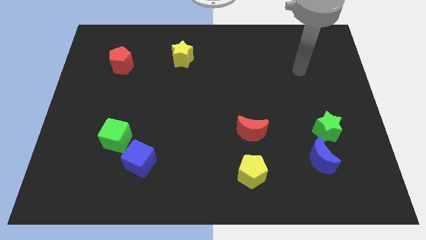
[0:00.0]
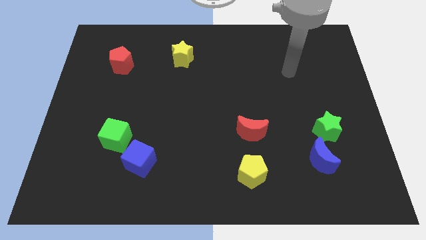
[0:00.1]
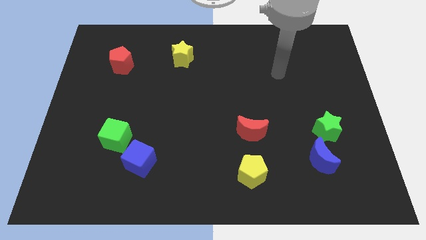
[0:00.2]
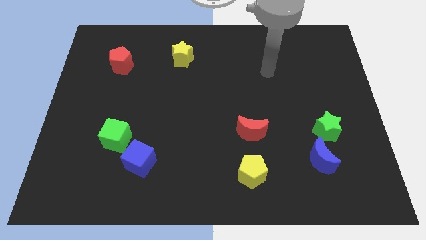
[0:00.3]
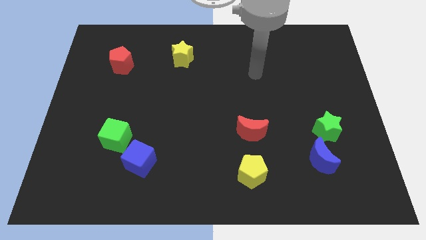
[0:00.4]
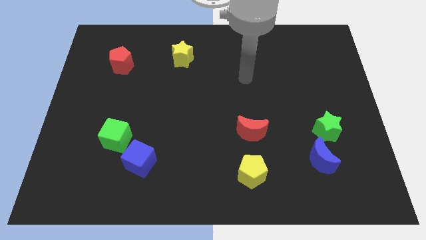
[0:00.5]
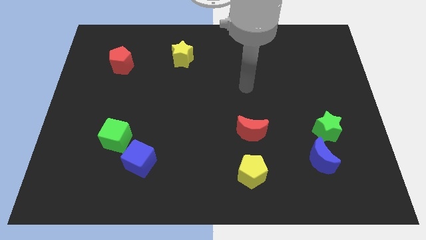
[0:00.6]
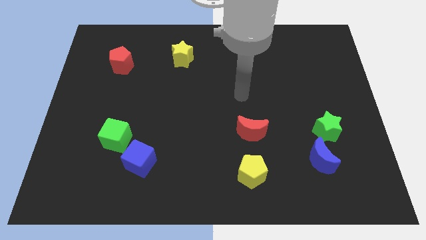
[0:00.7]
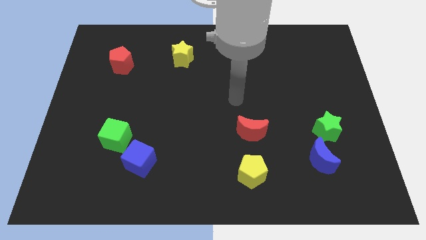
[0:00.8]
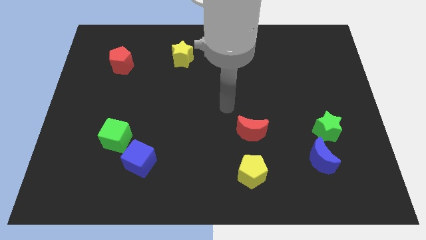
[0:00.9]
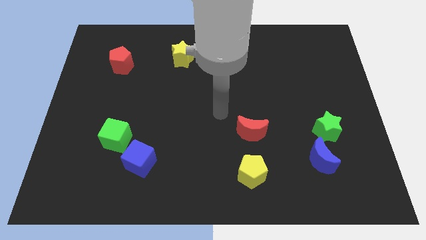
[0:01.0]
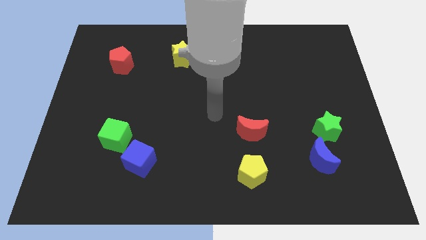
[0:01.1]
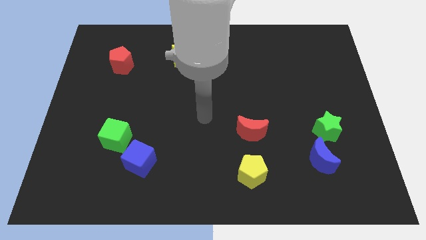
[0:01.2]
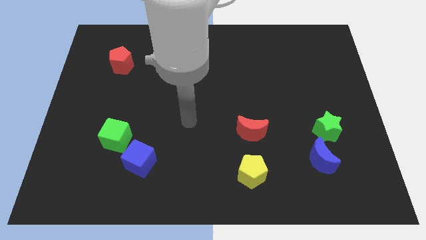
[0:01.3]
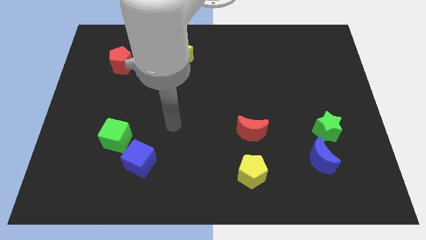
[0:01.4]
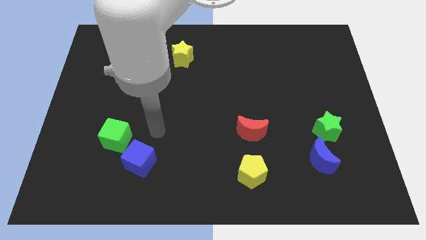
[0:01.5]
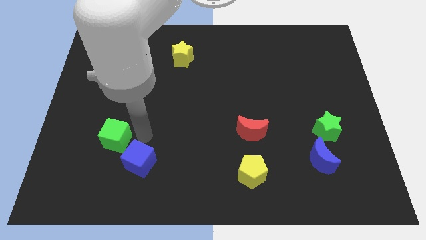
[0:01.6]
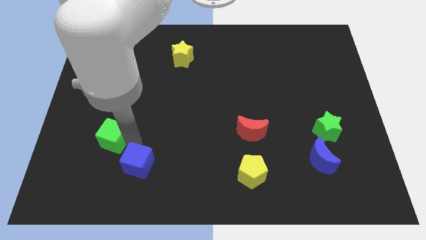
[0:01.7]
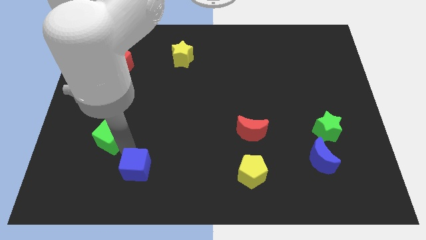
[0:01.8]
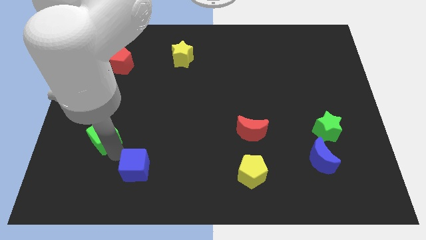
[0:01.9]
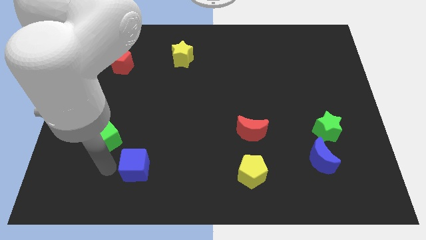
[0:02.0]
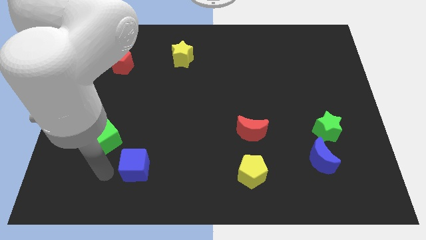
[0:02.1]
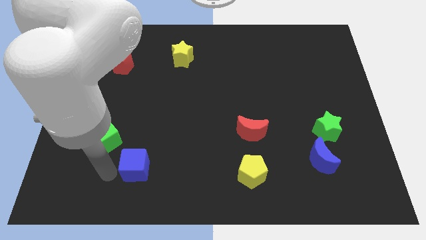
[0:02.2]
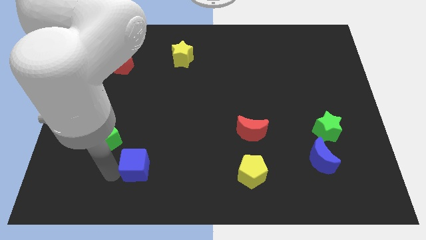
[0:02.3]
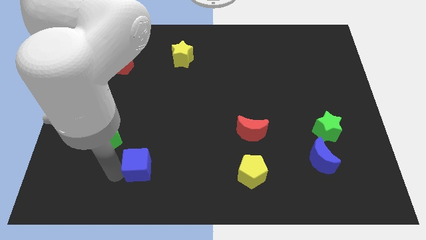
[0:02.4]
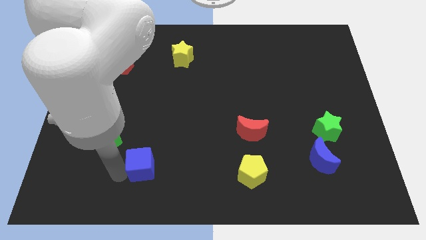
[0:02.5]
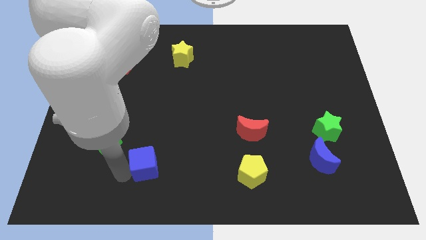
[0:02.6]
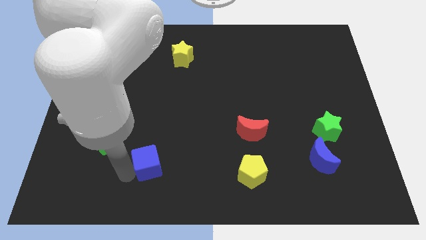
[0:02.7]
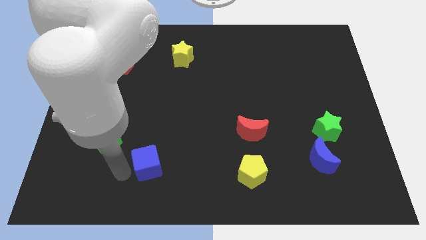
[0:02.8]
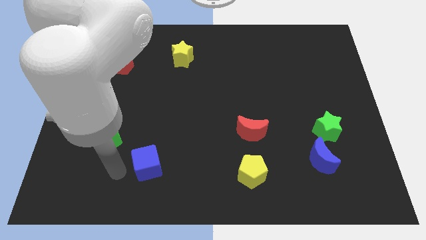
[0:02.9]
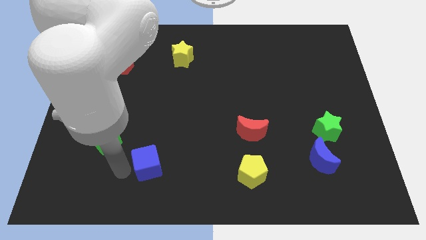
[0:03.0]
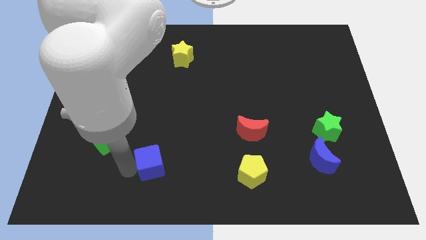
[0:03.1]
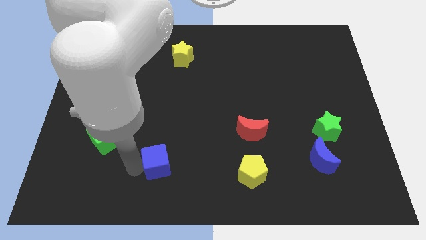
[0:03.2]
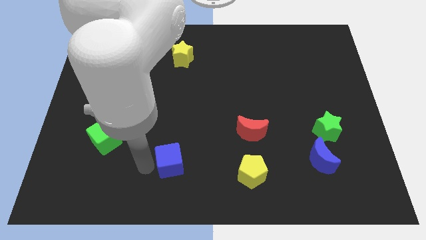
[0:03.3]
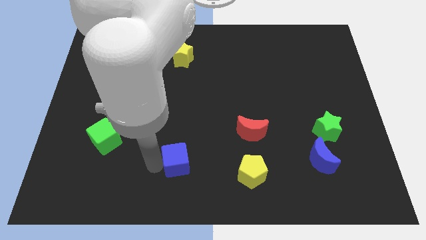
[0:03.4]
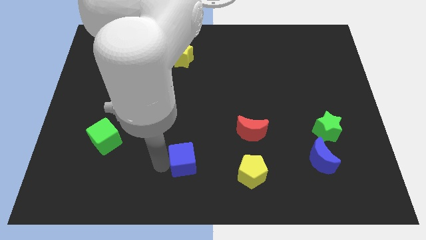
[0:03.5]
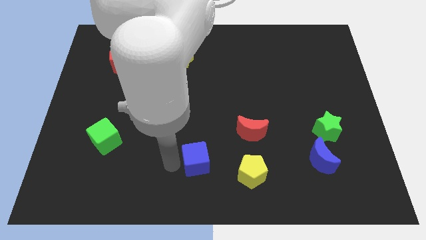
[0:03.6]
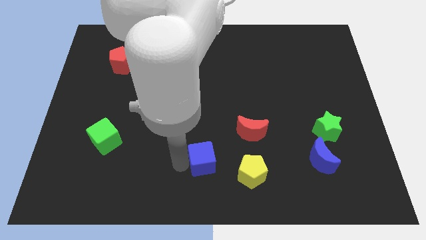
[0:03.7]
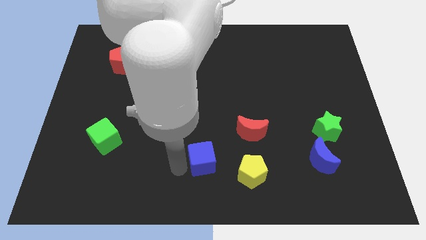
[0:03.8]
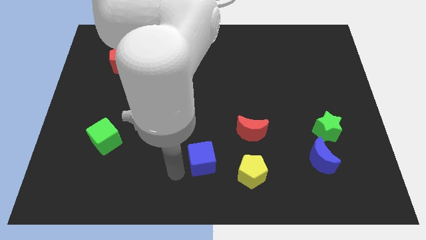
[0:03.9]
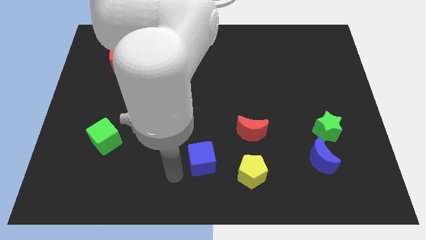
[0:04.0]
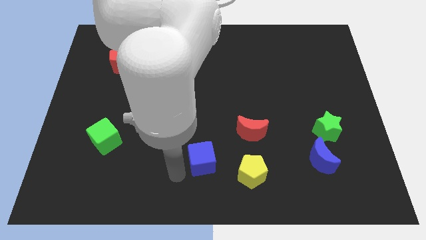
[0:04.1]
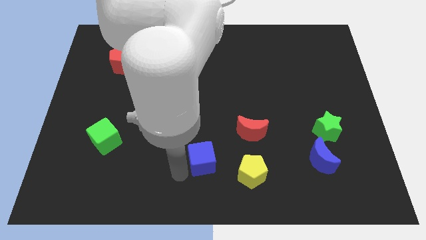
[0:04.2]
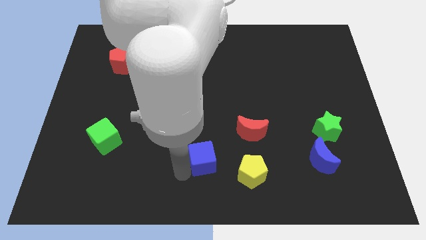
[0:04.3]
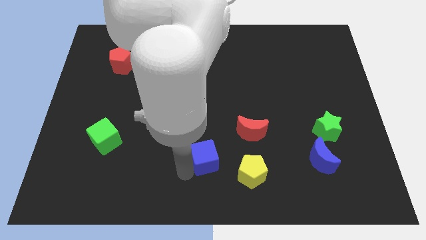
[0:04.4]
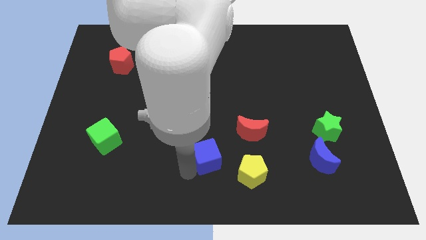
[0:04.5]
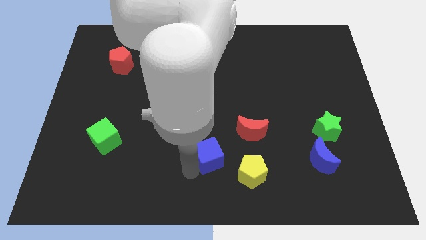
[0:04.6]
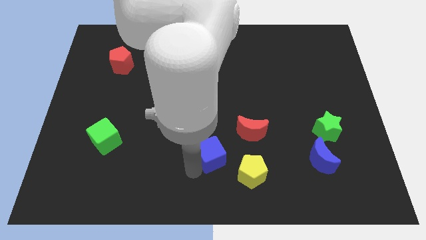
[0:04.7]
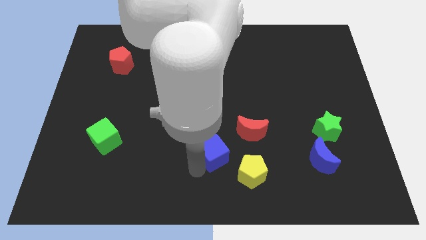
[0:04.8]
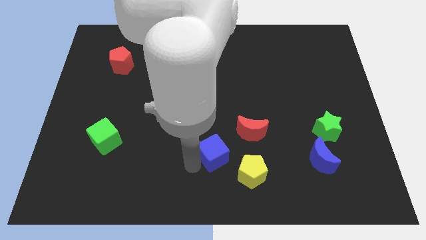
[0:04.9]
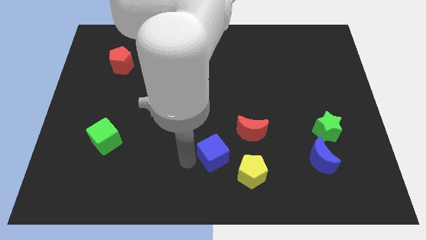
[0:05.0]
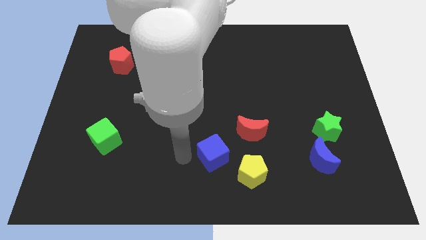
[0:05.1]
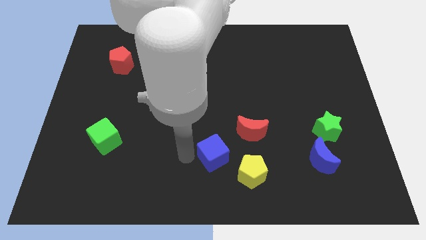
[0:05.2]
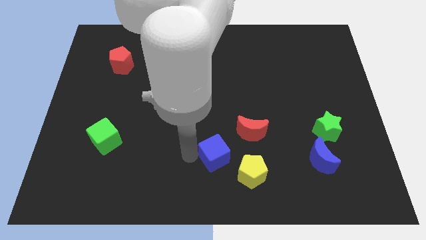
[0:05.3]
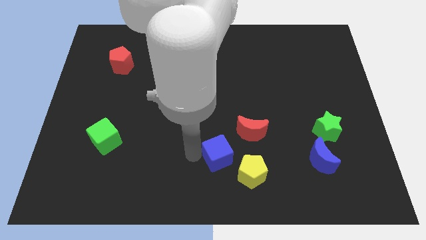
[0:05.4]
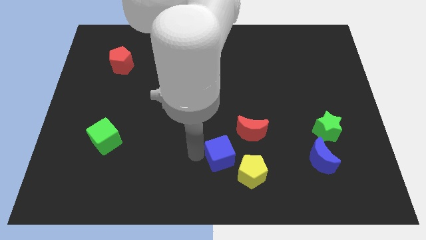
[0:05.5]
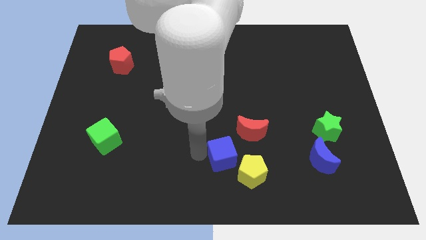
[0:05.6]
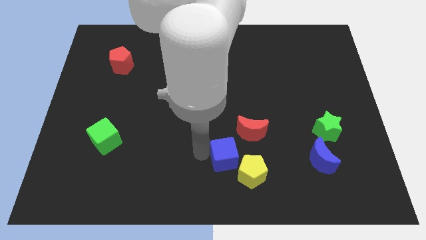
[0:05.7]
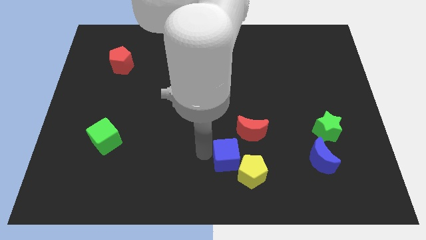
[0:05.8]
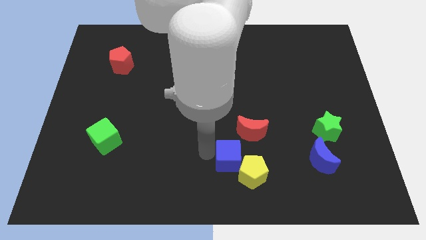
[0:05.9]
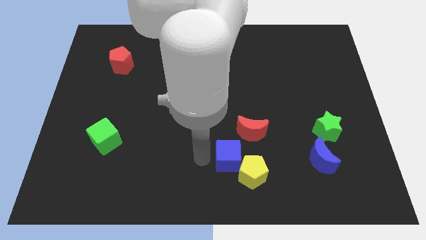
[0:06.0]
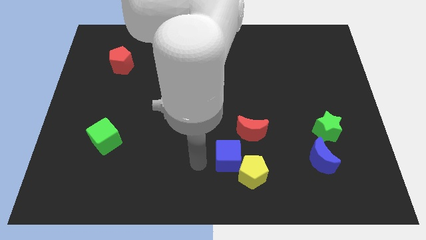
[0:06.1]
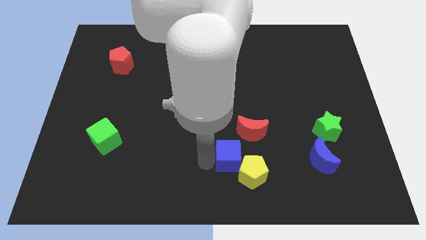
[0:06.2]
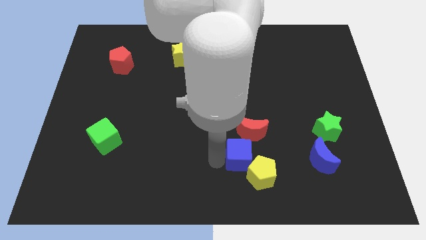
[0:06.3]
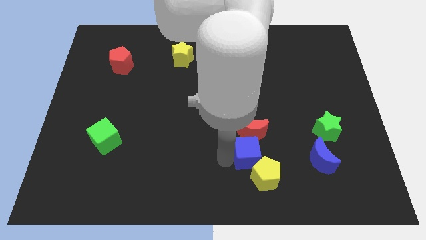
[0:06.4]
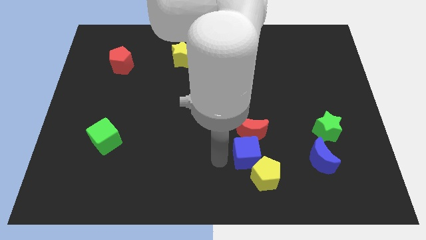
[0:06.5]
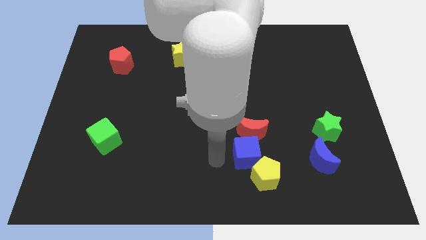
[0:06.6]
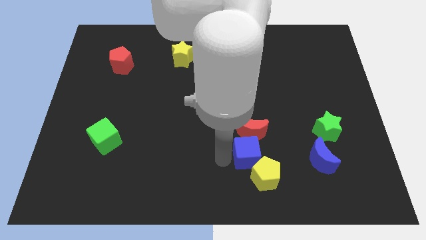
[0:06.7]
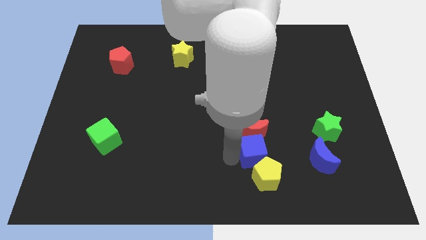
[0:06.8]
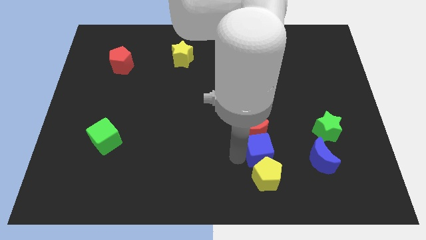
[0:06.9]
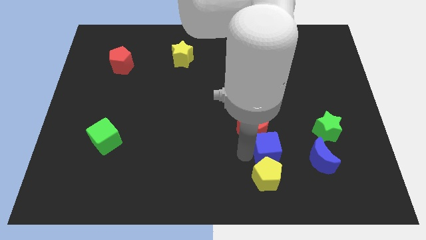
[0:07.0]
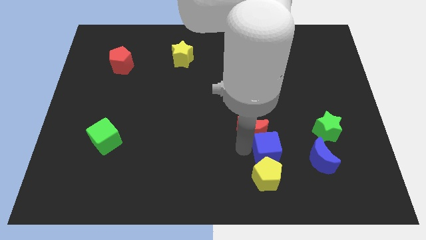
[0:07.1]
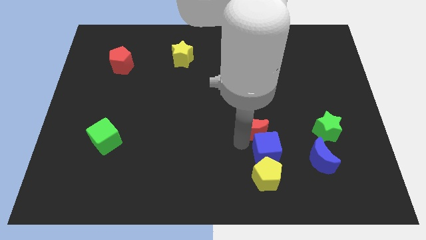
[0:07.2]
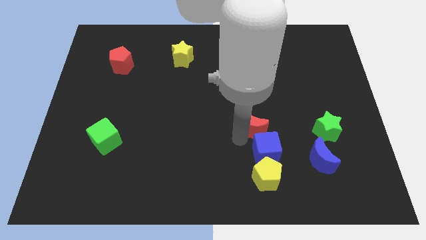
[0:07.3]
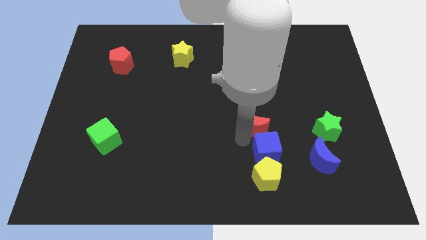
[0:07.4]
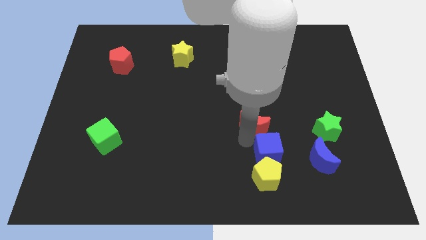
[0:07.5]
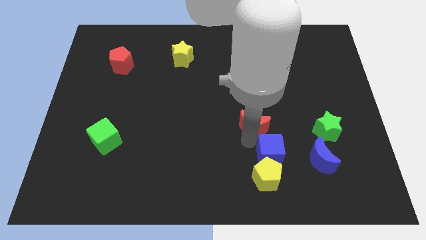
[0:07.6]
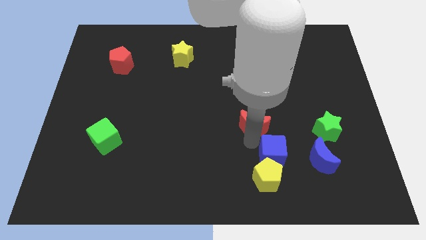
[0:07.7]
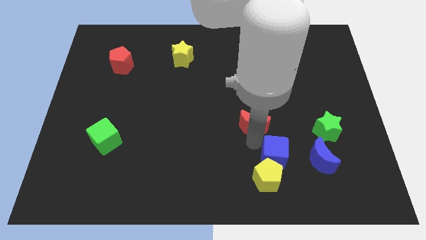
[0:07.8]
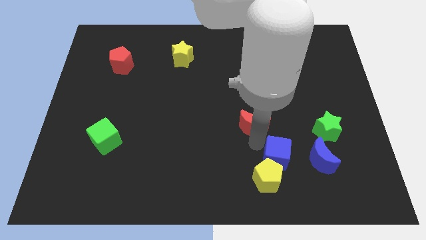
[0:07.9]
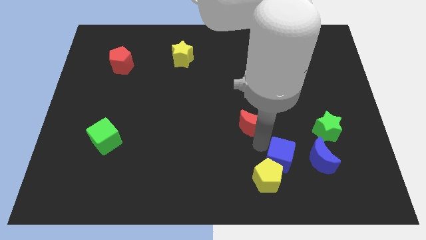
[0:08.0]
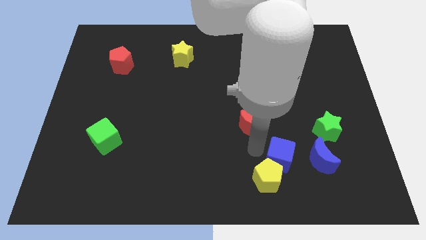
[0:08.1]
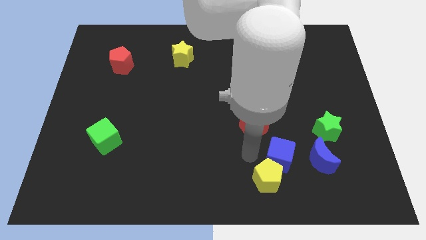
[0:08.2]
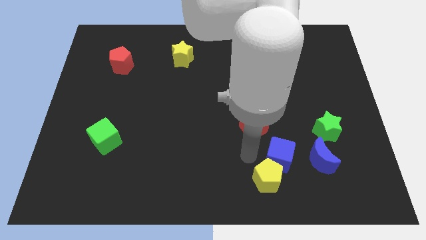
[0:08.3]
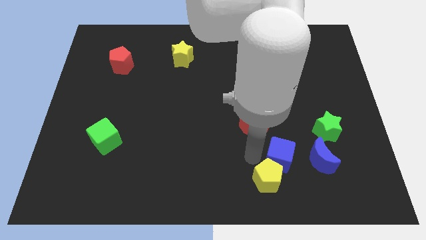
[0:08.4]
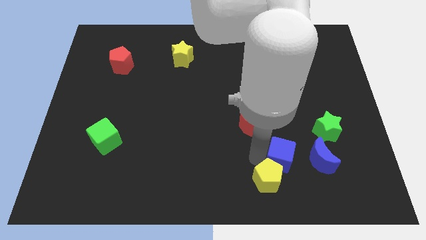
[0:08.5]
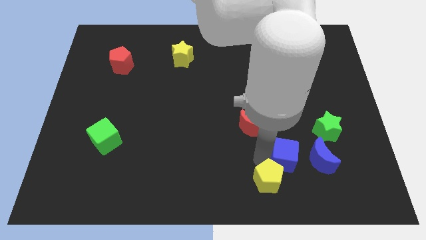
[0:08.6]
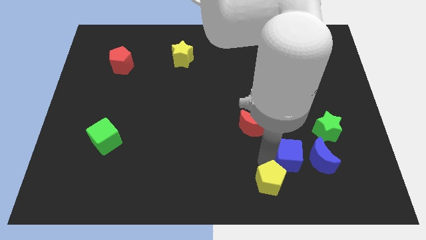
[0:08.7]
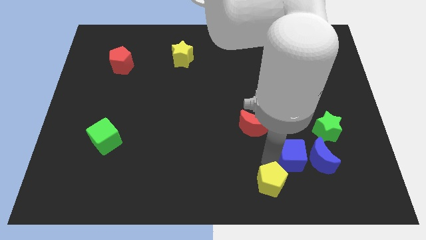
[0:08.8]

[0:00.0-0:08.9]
slide the blue cube towards the blue moon
